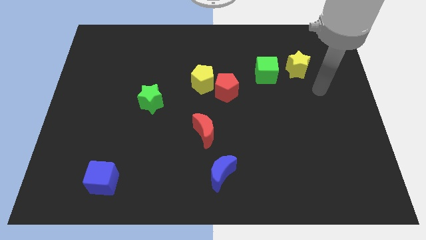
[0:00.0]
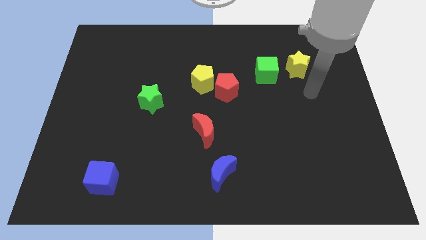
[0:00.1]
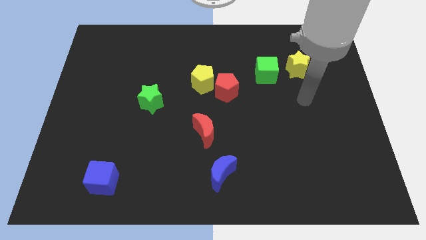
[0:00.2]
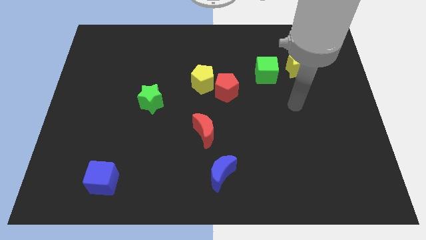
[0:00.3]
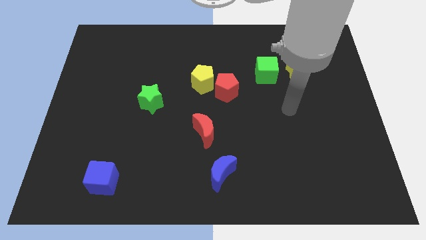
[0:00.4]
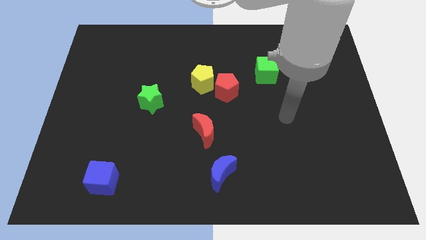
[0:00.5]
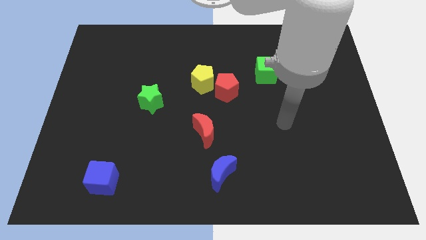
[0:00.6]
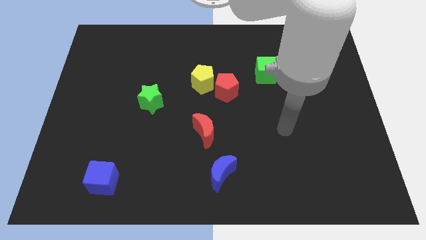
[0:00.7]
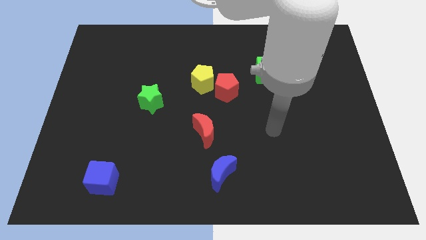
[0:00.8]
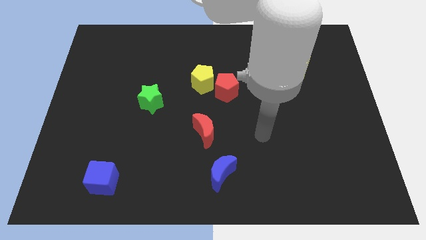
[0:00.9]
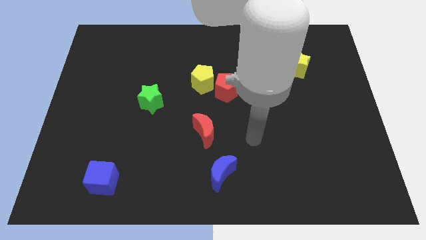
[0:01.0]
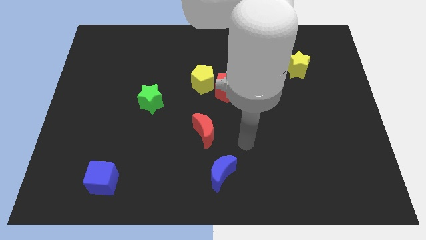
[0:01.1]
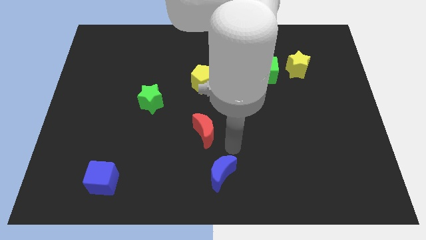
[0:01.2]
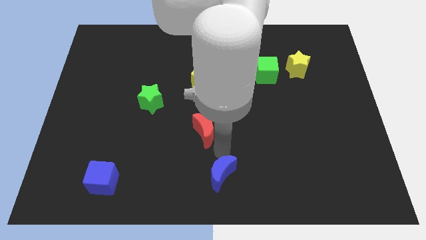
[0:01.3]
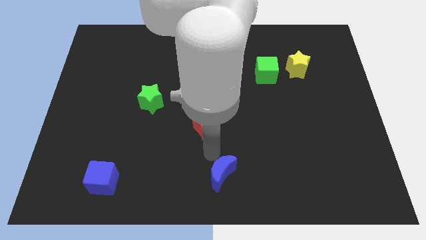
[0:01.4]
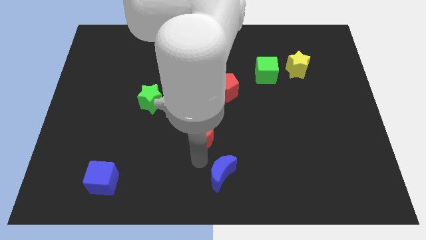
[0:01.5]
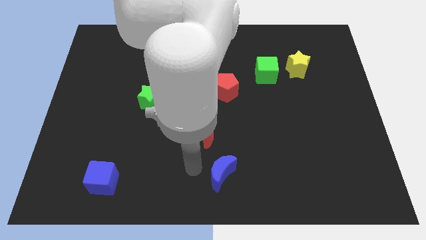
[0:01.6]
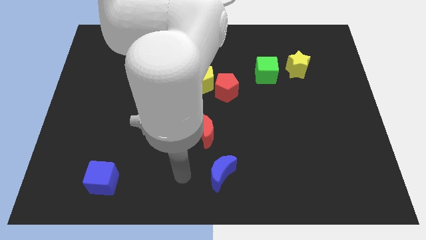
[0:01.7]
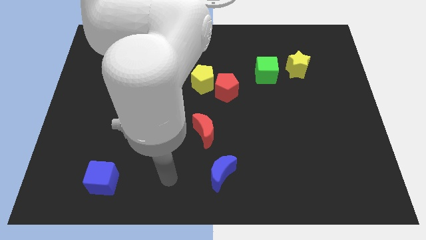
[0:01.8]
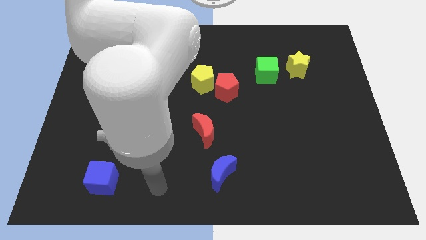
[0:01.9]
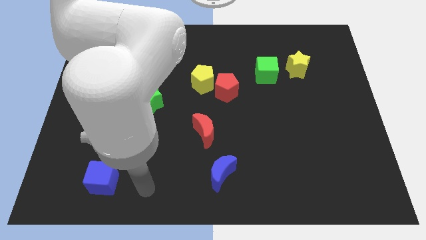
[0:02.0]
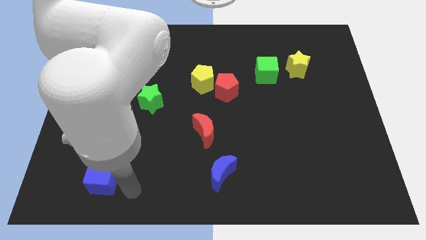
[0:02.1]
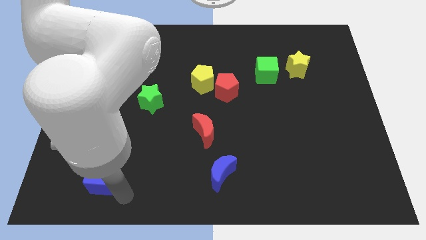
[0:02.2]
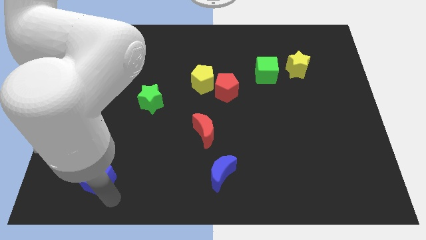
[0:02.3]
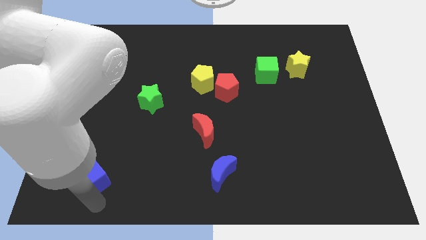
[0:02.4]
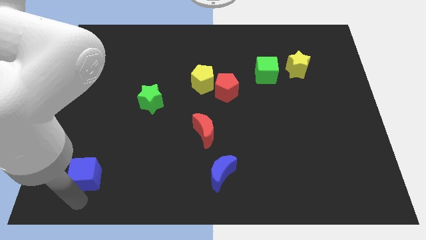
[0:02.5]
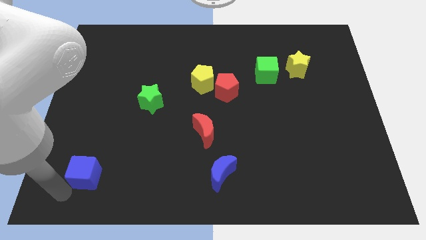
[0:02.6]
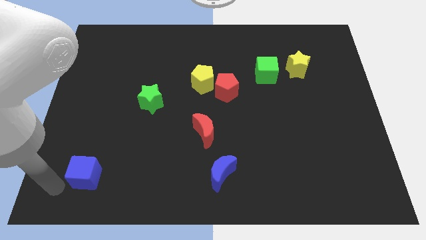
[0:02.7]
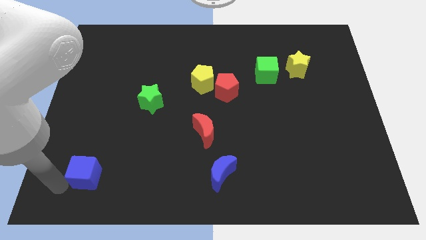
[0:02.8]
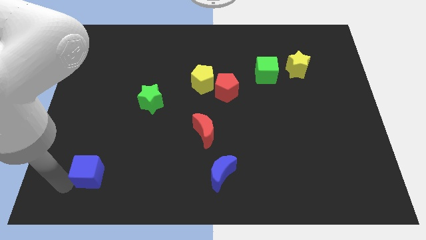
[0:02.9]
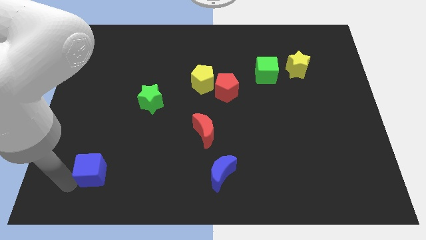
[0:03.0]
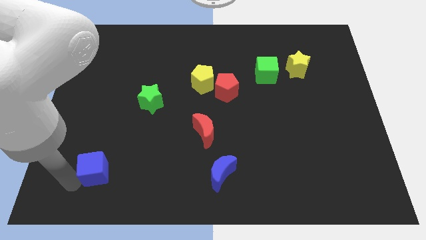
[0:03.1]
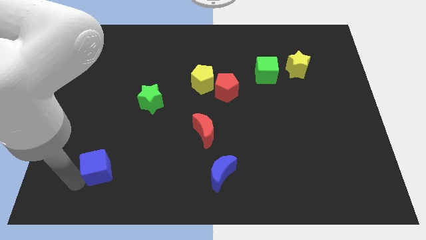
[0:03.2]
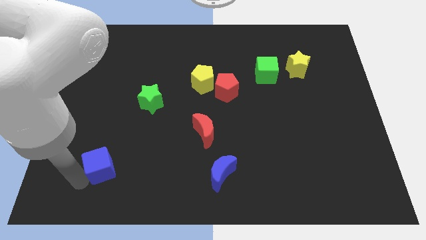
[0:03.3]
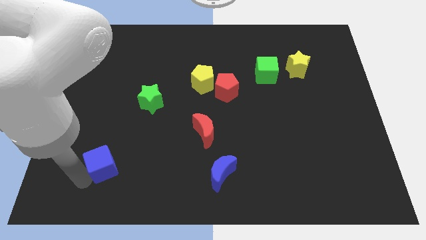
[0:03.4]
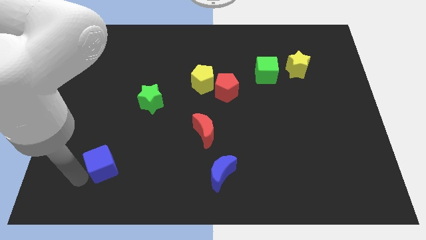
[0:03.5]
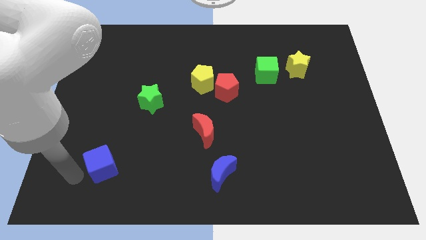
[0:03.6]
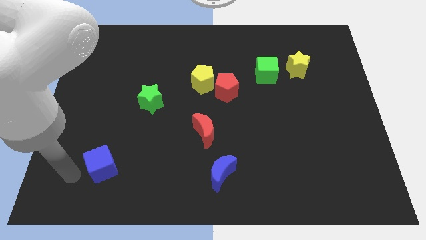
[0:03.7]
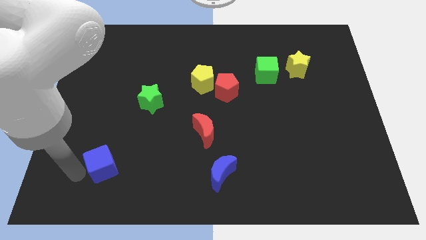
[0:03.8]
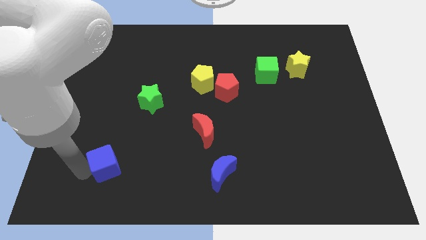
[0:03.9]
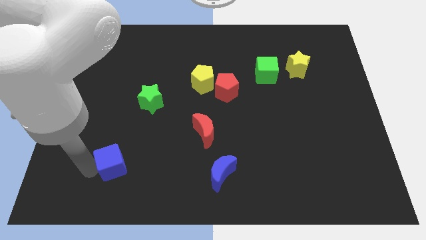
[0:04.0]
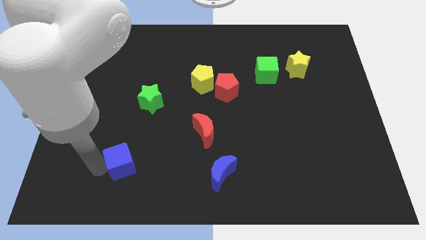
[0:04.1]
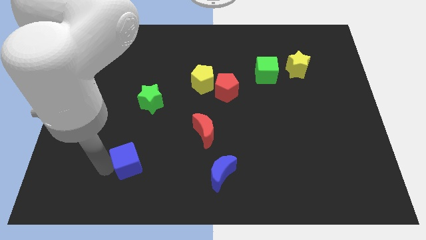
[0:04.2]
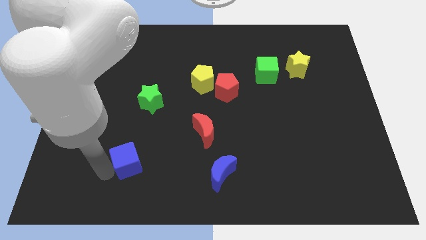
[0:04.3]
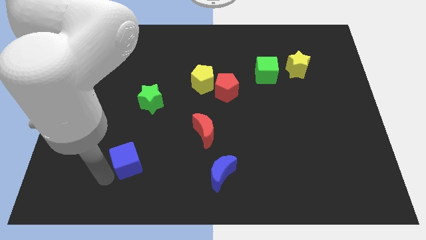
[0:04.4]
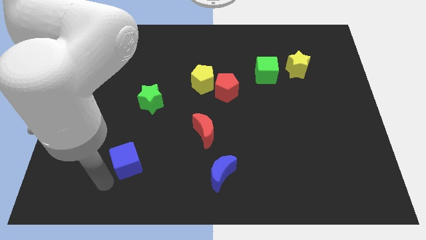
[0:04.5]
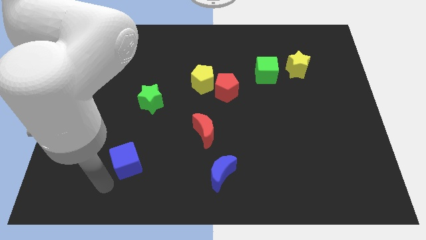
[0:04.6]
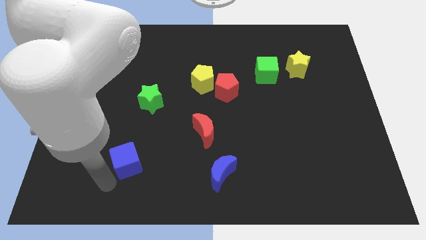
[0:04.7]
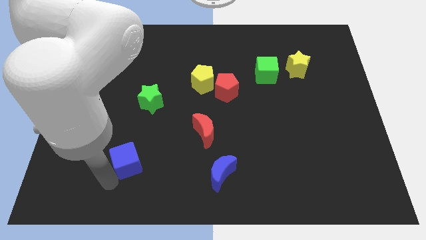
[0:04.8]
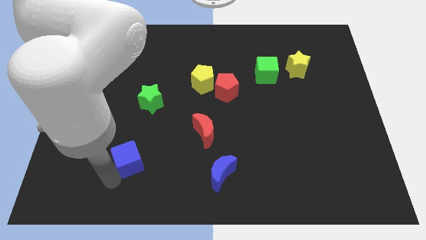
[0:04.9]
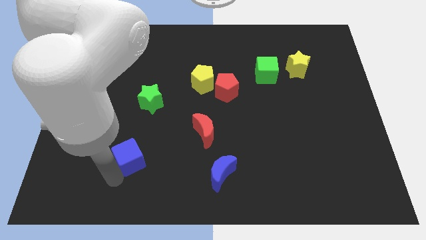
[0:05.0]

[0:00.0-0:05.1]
push the blue cube slightly up and to the right diagonally

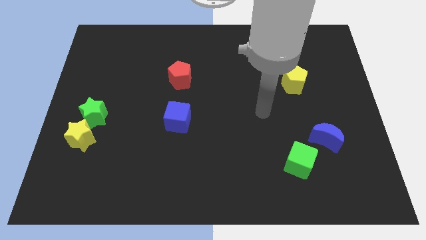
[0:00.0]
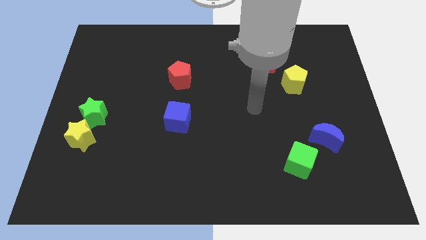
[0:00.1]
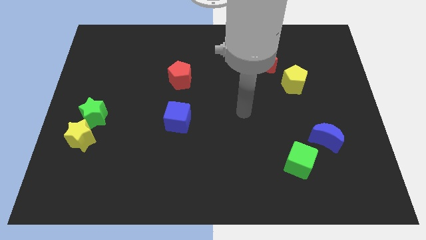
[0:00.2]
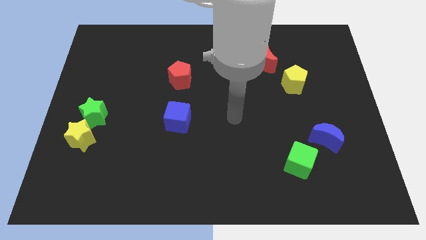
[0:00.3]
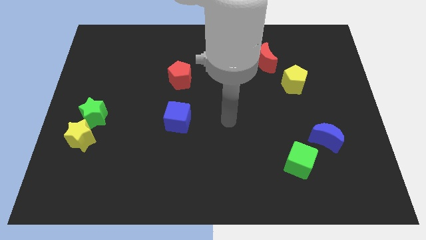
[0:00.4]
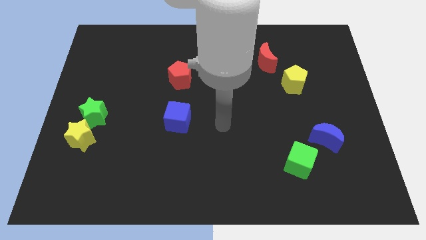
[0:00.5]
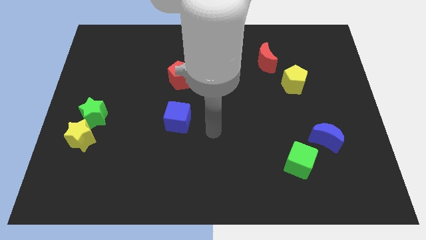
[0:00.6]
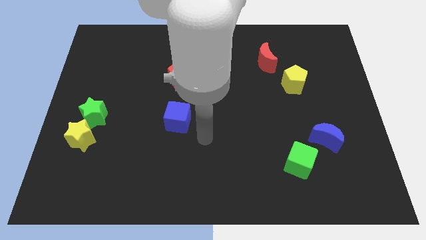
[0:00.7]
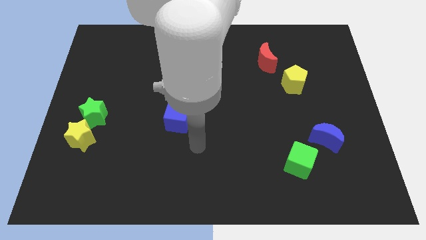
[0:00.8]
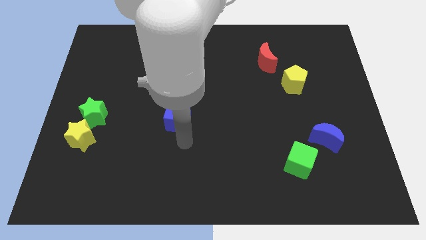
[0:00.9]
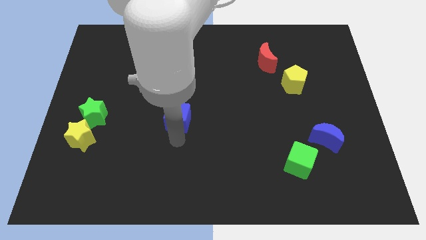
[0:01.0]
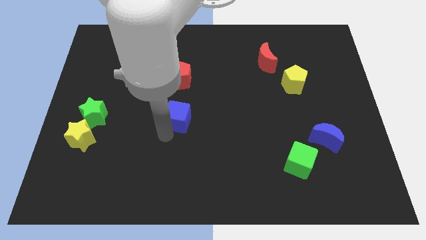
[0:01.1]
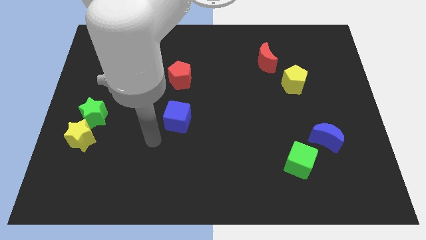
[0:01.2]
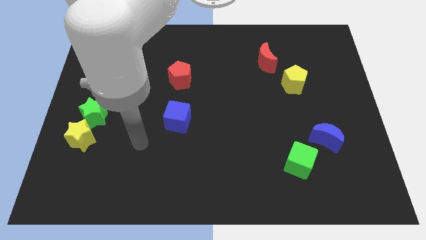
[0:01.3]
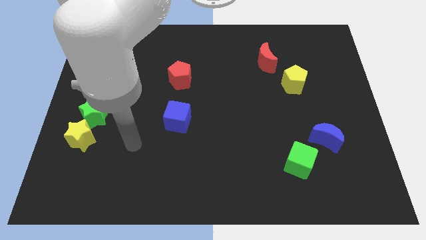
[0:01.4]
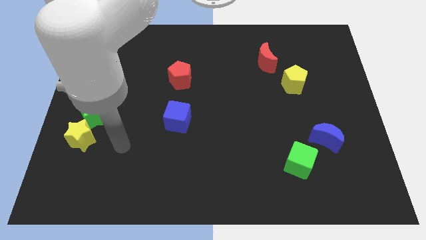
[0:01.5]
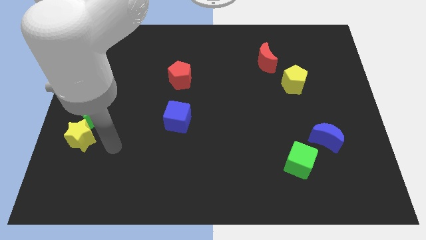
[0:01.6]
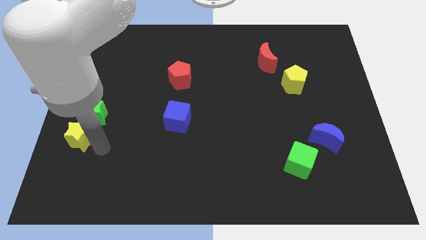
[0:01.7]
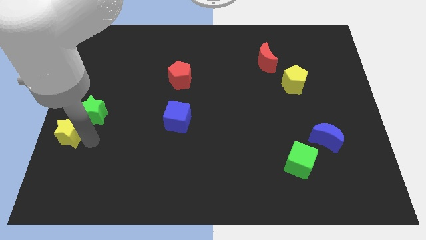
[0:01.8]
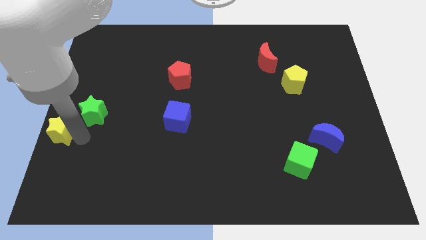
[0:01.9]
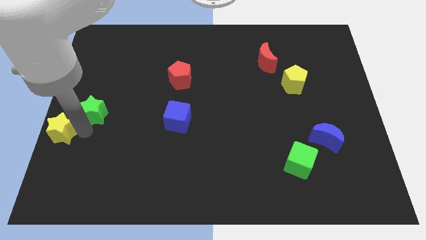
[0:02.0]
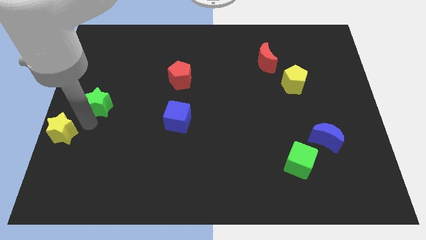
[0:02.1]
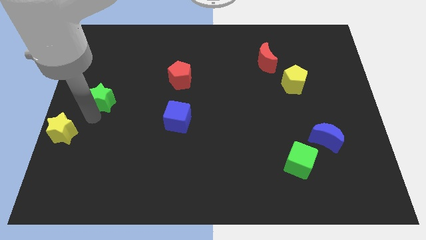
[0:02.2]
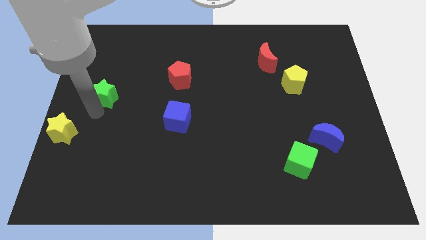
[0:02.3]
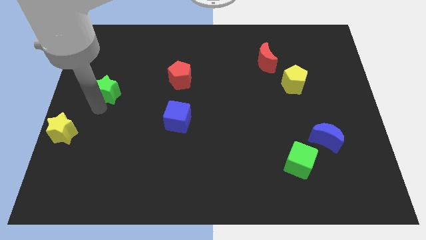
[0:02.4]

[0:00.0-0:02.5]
slide the green star upwards a little bit
